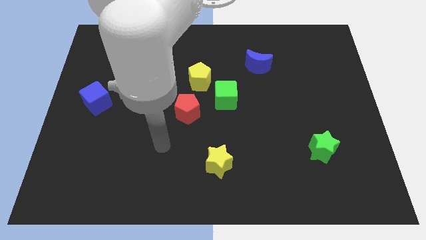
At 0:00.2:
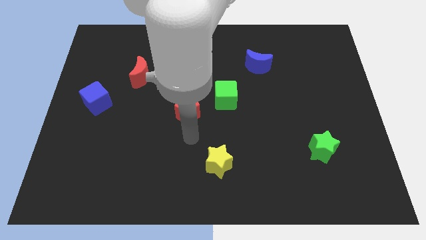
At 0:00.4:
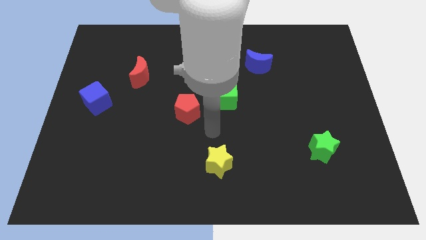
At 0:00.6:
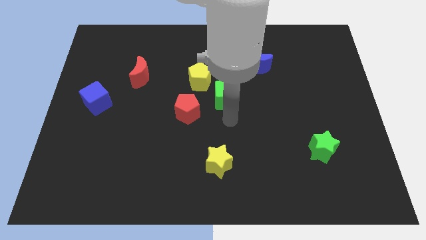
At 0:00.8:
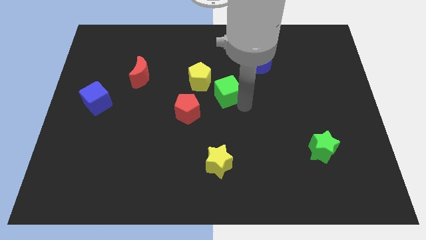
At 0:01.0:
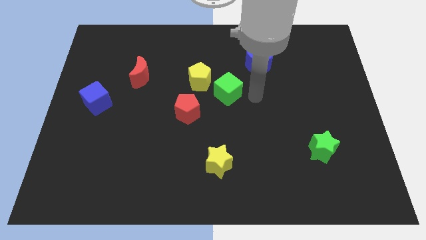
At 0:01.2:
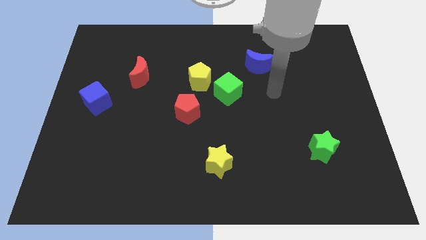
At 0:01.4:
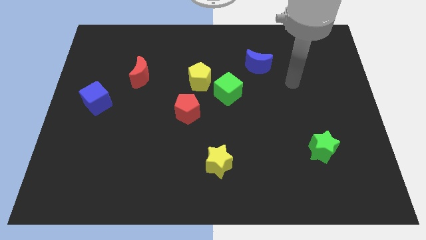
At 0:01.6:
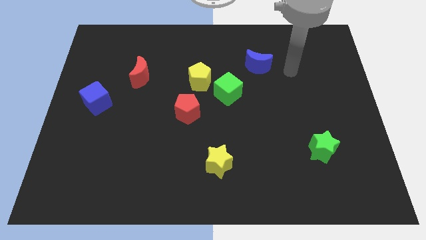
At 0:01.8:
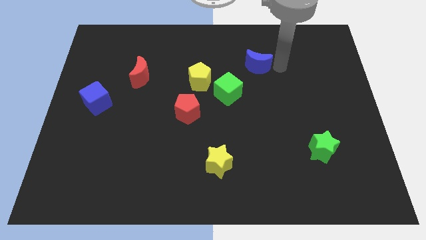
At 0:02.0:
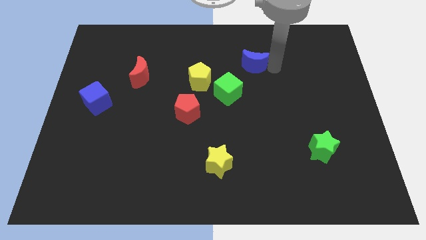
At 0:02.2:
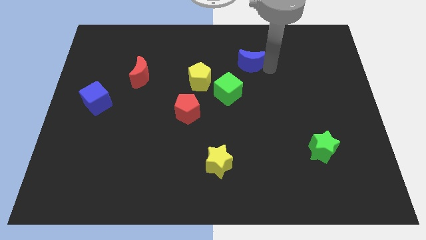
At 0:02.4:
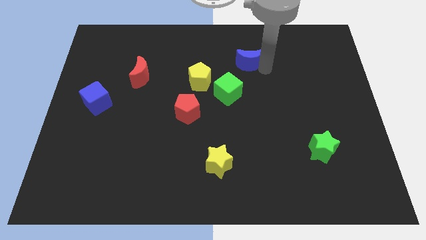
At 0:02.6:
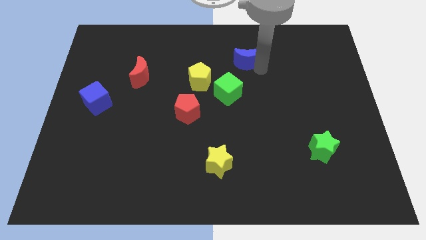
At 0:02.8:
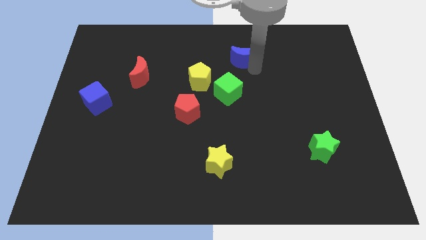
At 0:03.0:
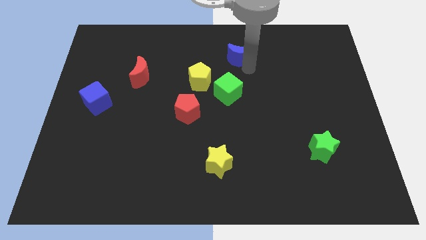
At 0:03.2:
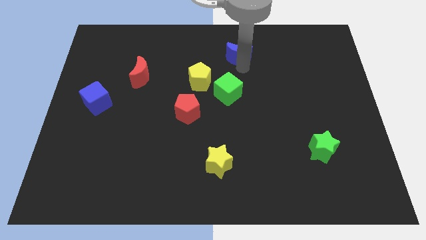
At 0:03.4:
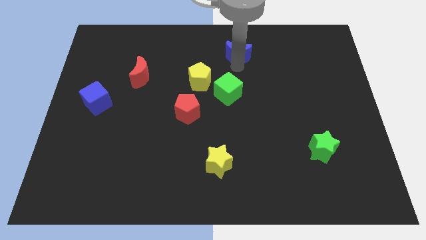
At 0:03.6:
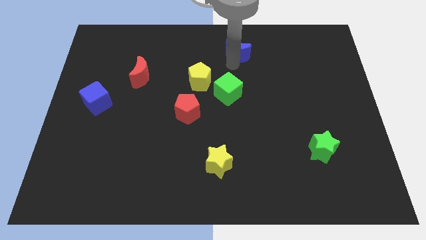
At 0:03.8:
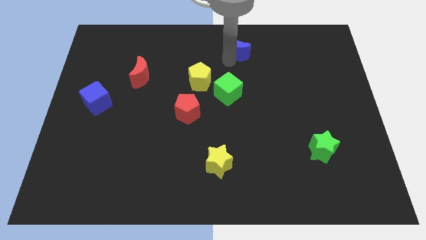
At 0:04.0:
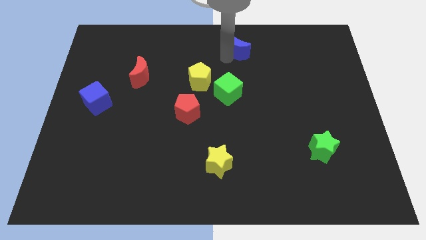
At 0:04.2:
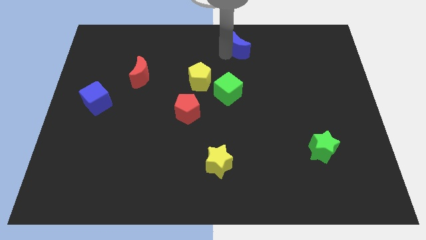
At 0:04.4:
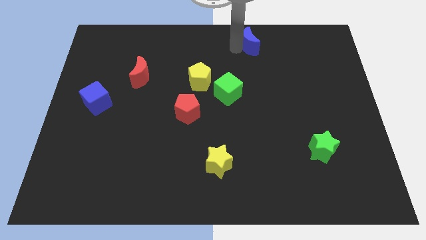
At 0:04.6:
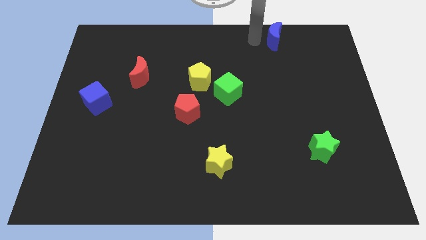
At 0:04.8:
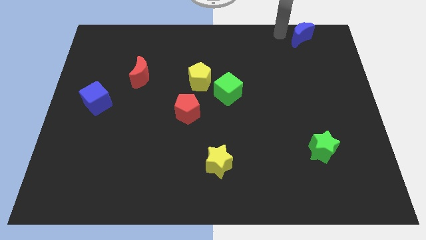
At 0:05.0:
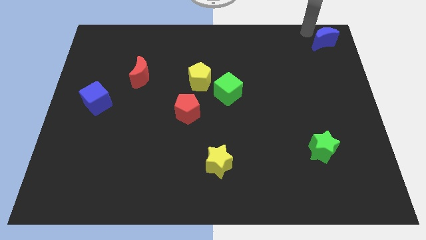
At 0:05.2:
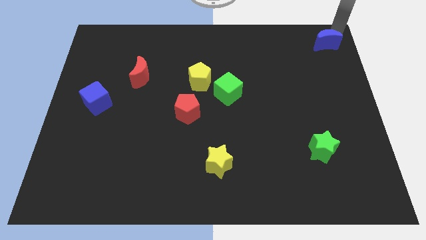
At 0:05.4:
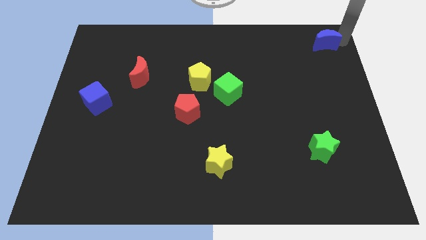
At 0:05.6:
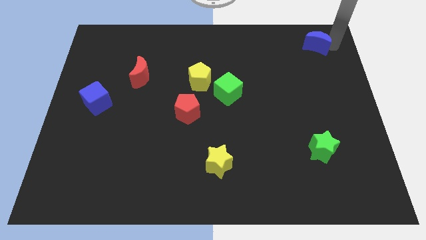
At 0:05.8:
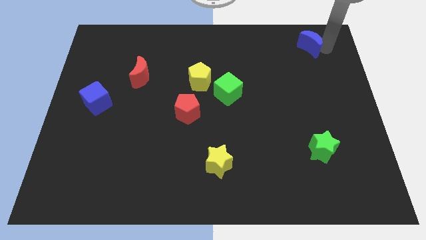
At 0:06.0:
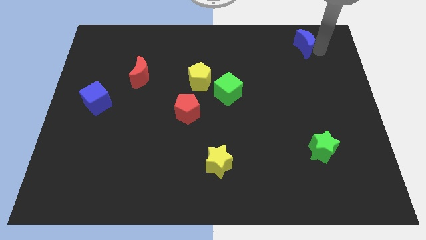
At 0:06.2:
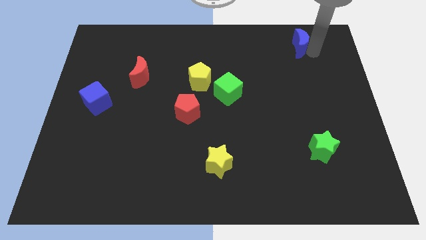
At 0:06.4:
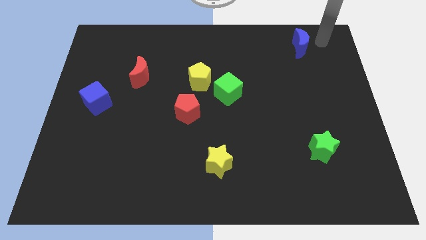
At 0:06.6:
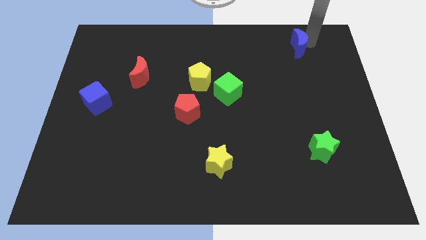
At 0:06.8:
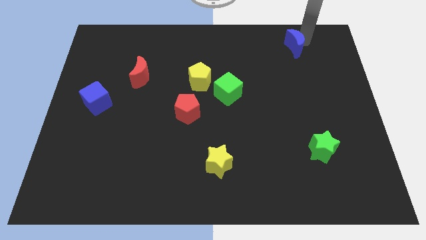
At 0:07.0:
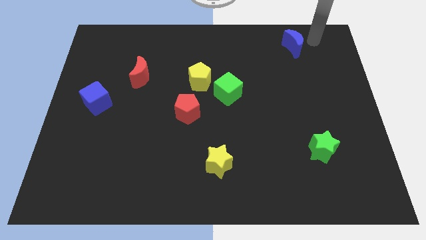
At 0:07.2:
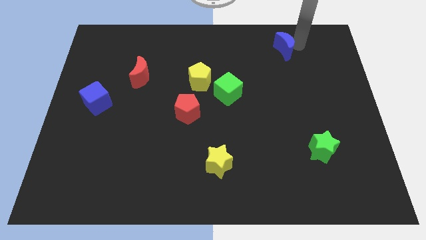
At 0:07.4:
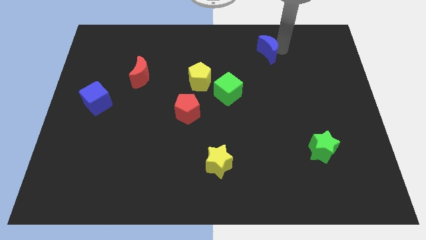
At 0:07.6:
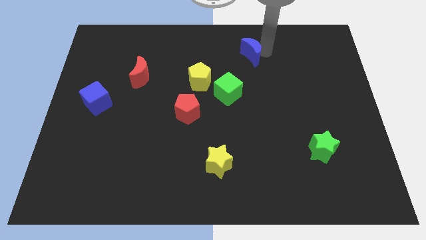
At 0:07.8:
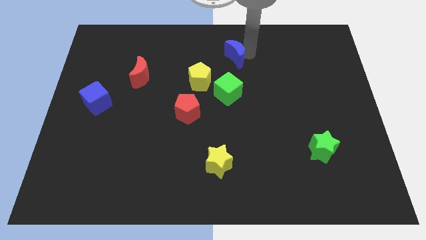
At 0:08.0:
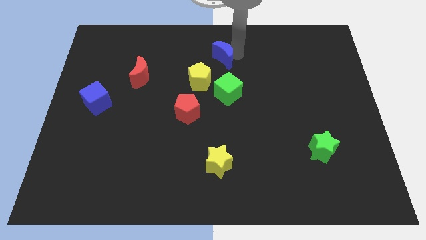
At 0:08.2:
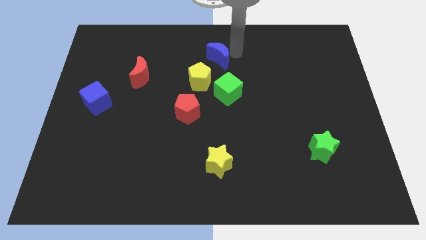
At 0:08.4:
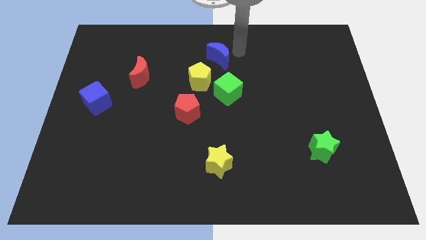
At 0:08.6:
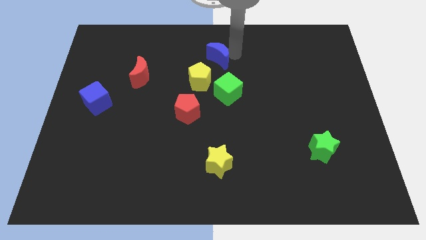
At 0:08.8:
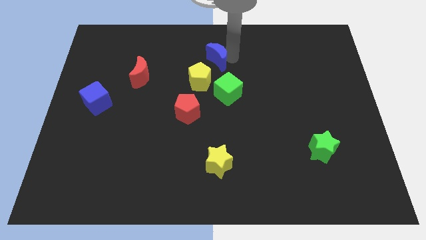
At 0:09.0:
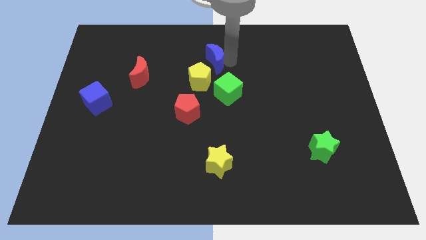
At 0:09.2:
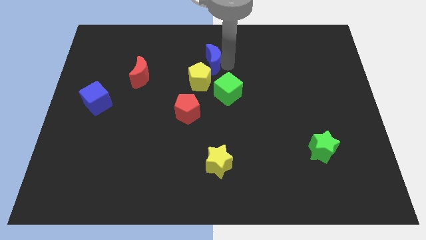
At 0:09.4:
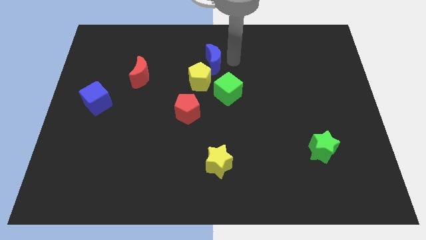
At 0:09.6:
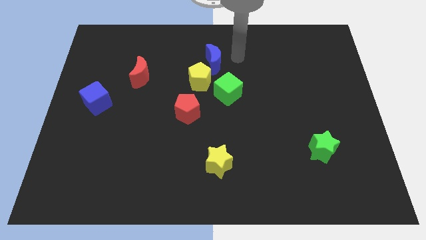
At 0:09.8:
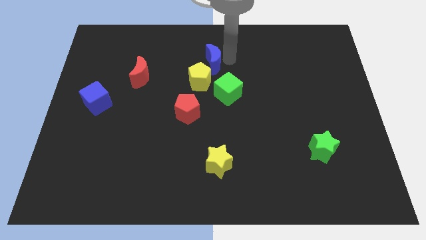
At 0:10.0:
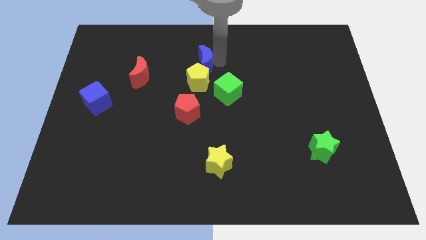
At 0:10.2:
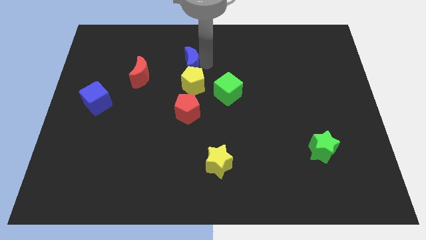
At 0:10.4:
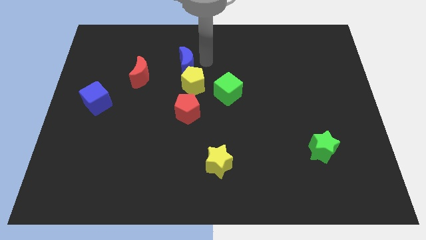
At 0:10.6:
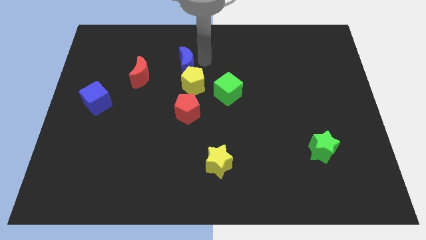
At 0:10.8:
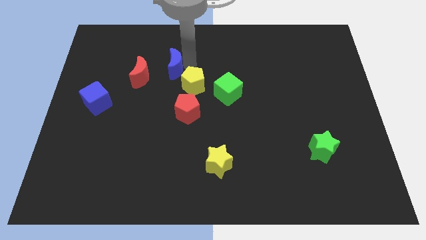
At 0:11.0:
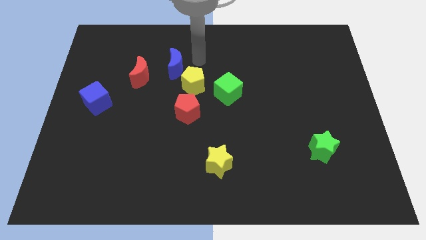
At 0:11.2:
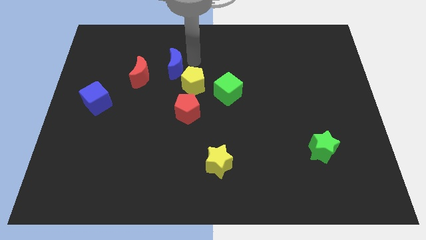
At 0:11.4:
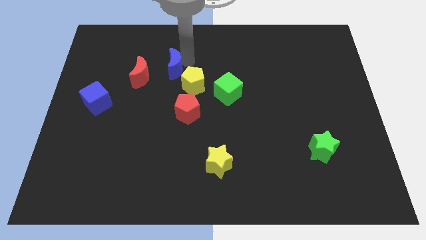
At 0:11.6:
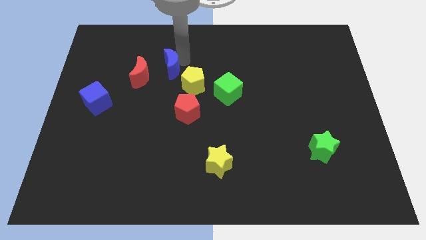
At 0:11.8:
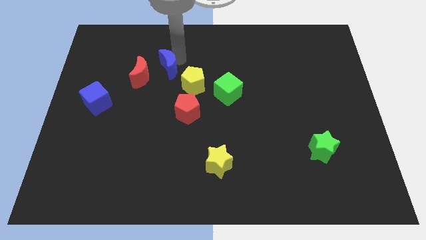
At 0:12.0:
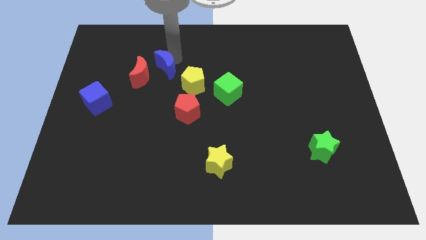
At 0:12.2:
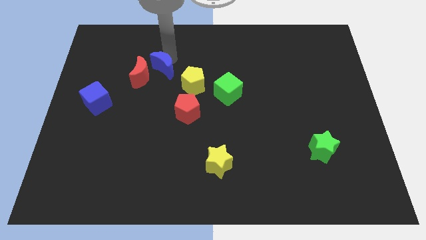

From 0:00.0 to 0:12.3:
move the blue moon towards the red moon

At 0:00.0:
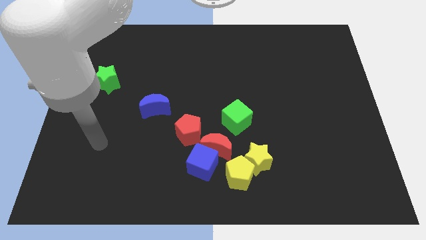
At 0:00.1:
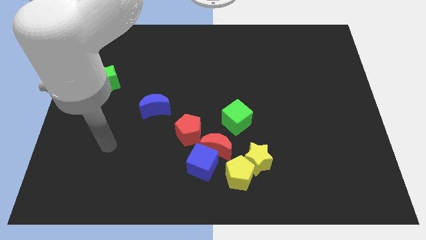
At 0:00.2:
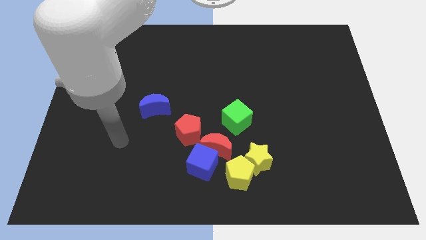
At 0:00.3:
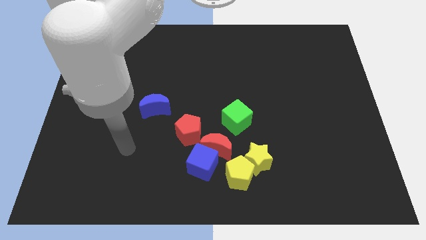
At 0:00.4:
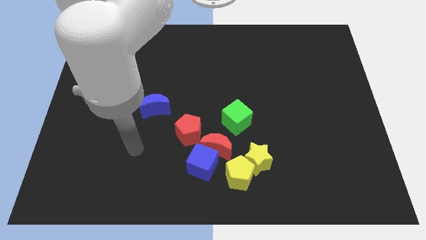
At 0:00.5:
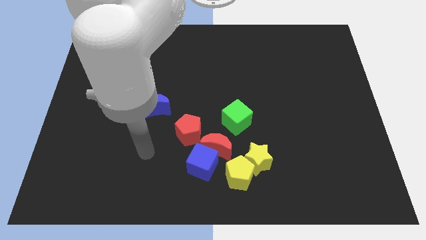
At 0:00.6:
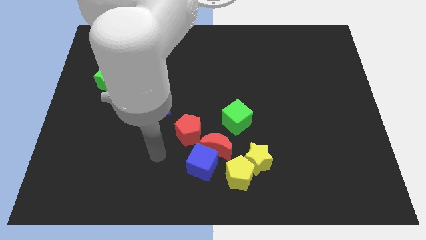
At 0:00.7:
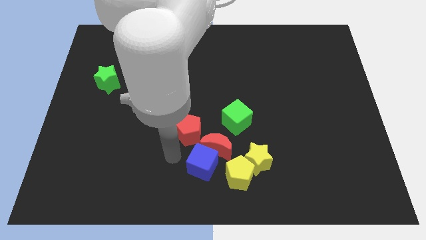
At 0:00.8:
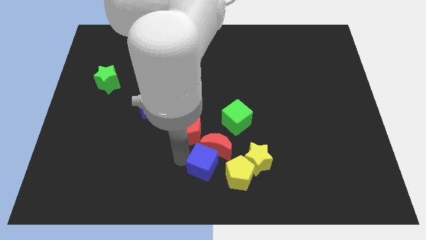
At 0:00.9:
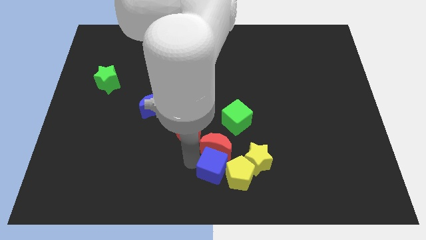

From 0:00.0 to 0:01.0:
slide the blue cube to the yellow pentagon

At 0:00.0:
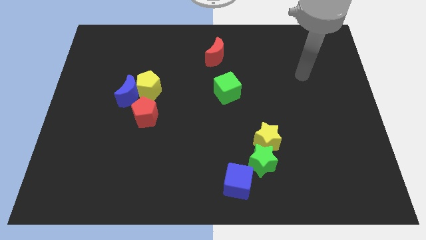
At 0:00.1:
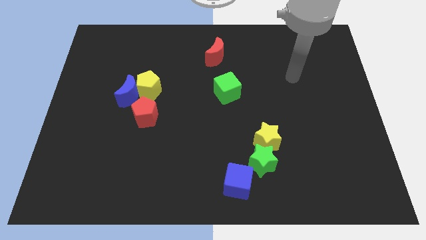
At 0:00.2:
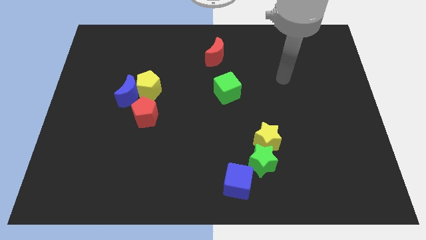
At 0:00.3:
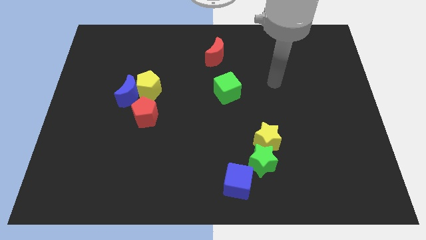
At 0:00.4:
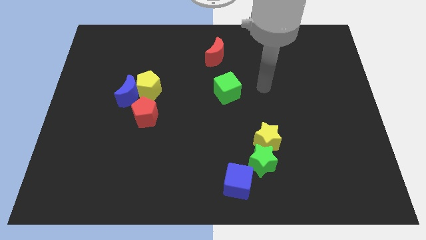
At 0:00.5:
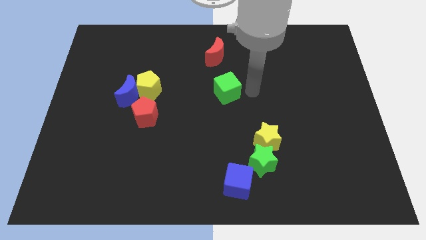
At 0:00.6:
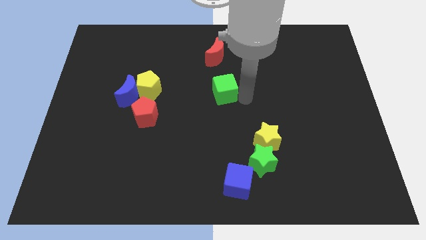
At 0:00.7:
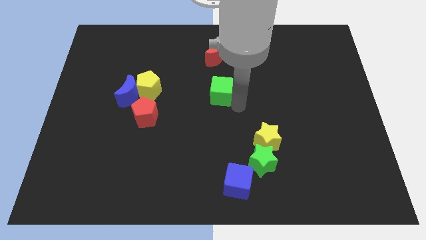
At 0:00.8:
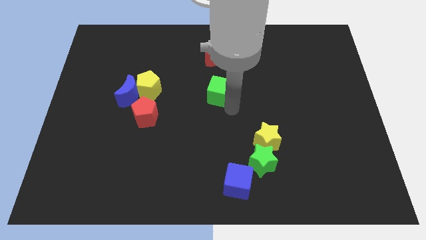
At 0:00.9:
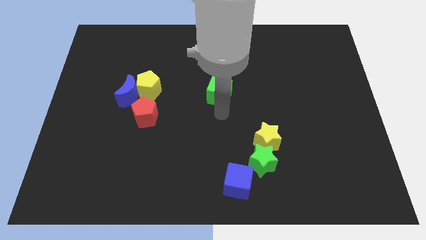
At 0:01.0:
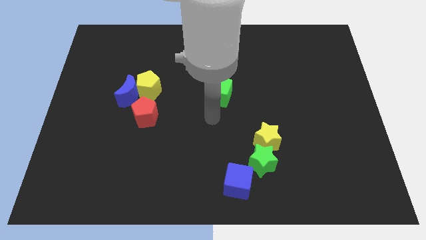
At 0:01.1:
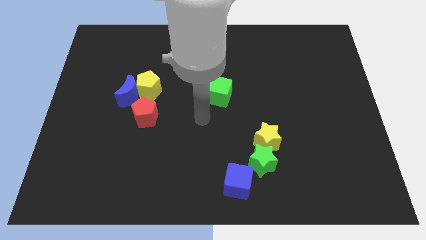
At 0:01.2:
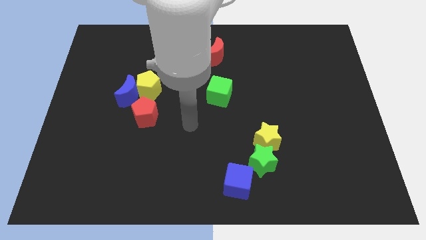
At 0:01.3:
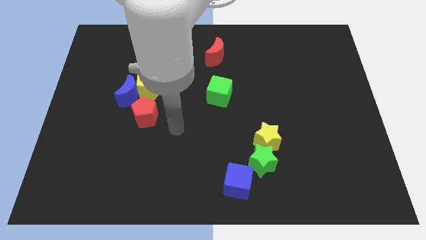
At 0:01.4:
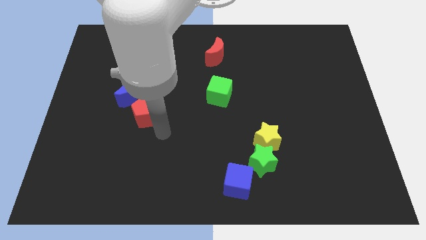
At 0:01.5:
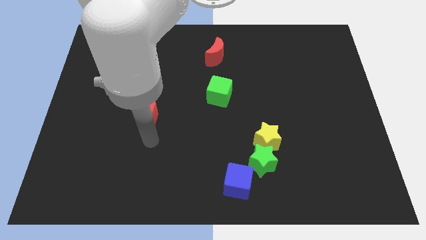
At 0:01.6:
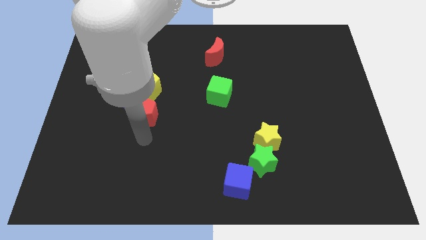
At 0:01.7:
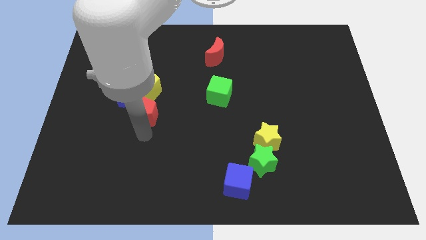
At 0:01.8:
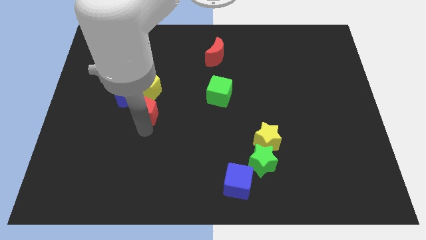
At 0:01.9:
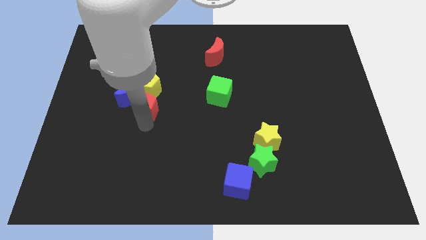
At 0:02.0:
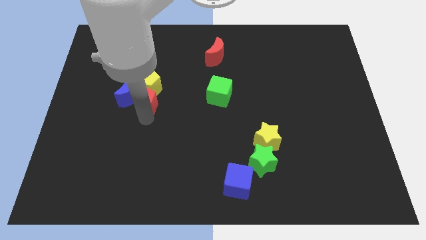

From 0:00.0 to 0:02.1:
put the red pentagon to the yellow pentagon
